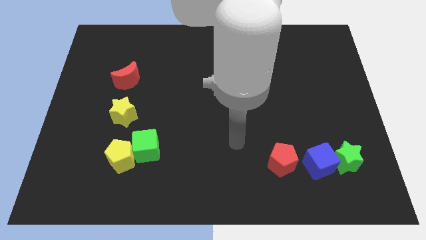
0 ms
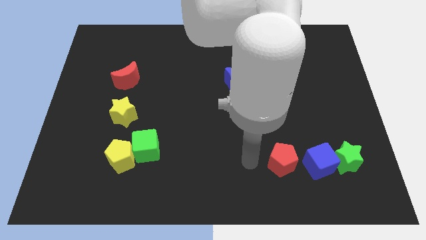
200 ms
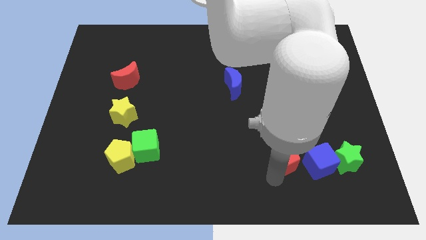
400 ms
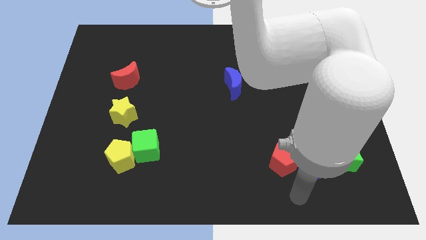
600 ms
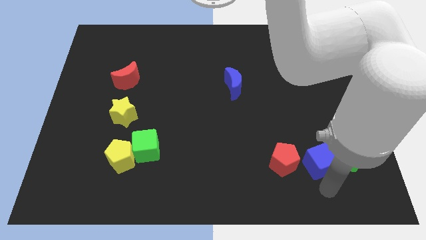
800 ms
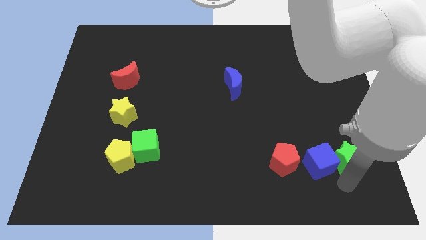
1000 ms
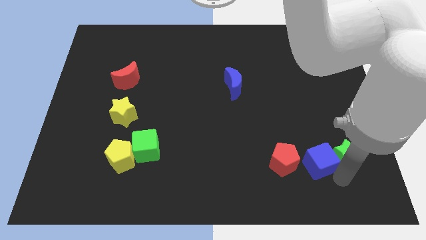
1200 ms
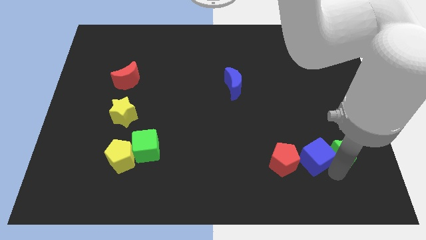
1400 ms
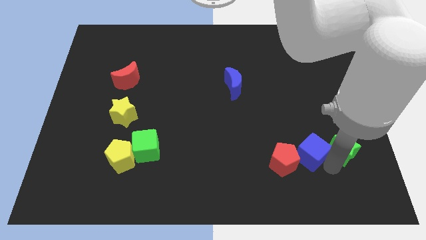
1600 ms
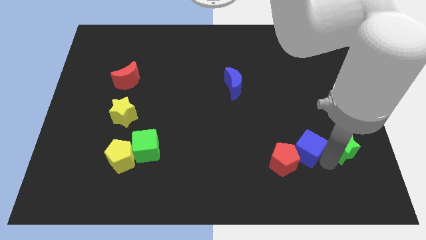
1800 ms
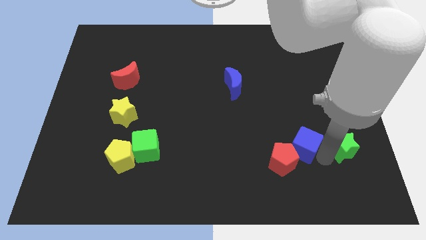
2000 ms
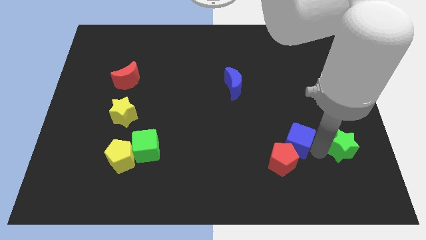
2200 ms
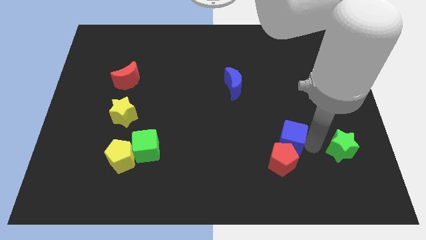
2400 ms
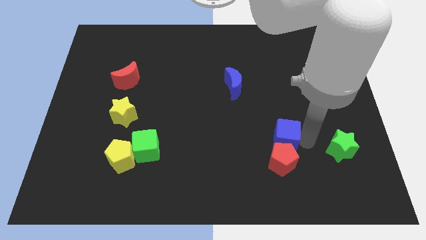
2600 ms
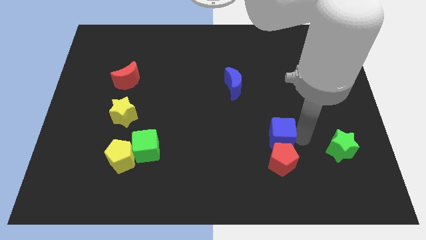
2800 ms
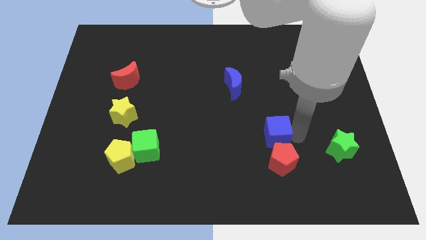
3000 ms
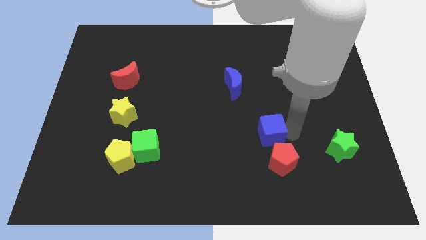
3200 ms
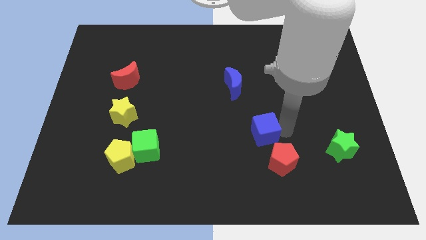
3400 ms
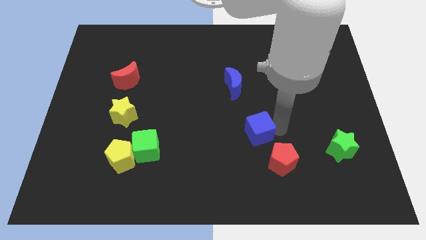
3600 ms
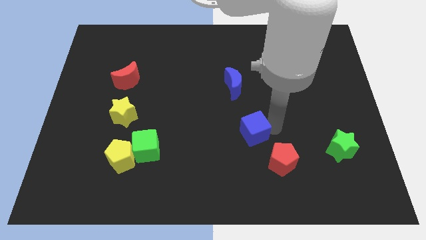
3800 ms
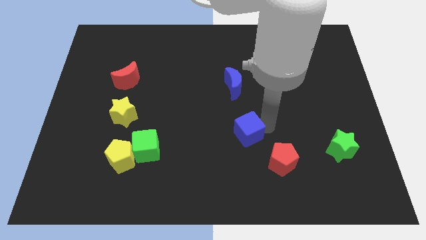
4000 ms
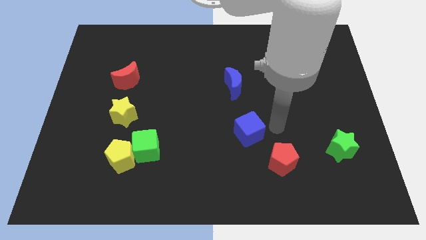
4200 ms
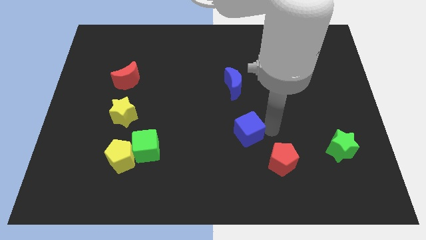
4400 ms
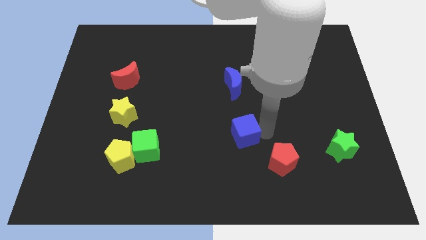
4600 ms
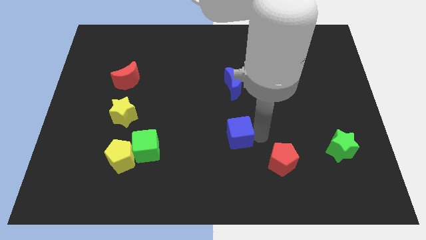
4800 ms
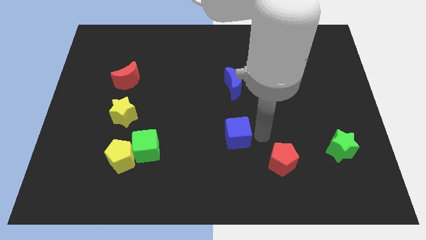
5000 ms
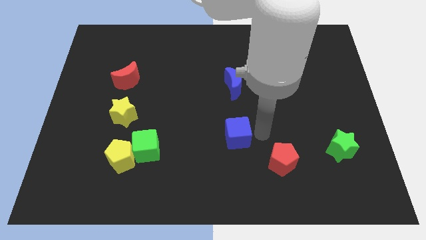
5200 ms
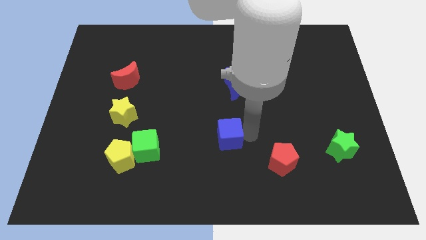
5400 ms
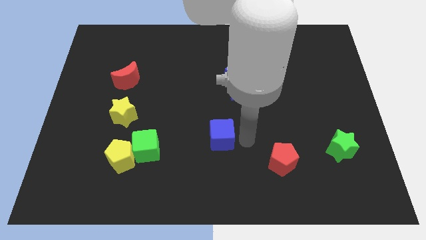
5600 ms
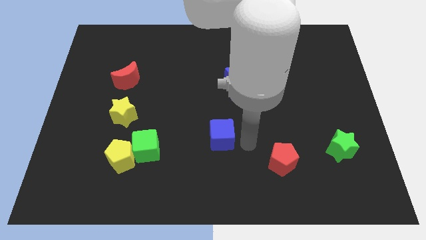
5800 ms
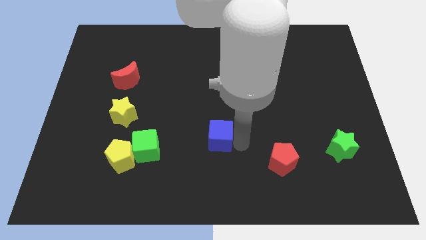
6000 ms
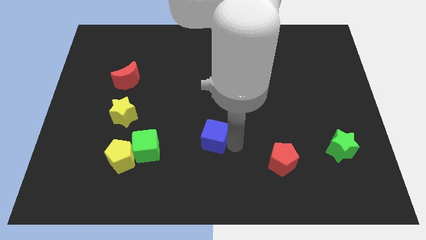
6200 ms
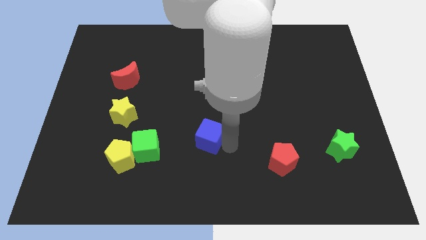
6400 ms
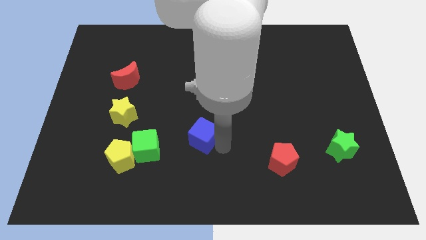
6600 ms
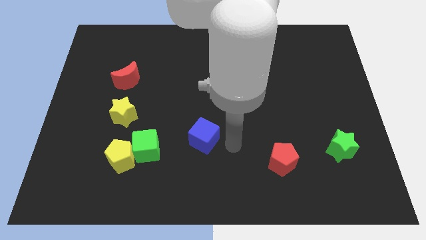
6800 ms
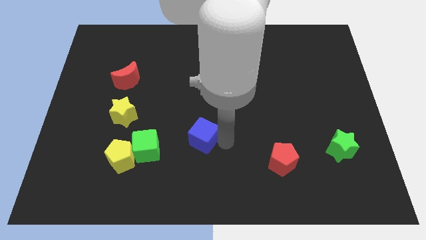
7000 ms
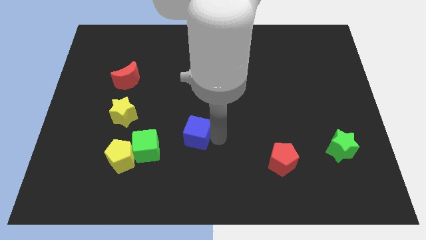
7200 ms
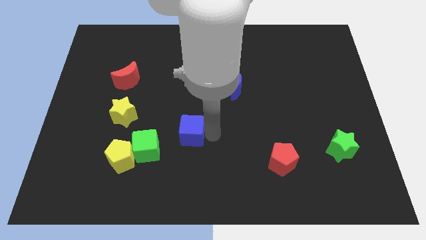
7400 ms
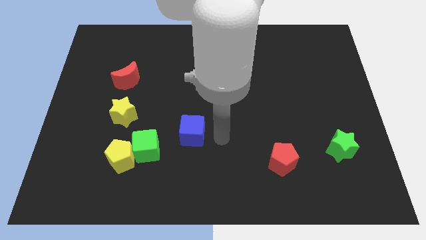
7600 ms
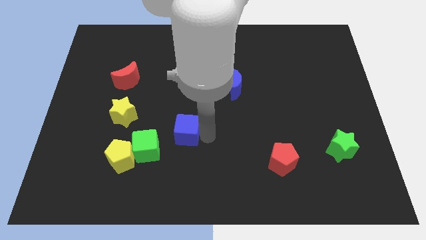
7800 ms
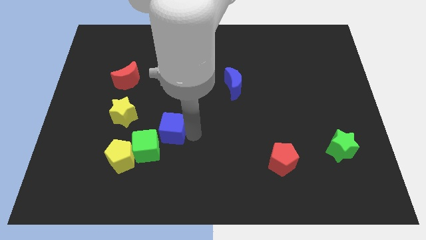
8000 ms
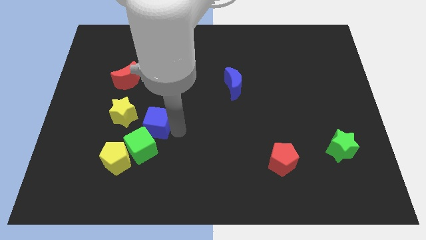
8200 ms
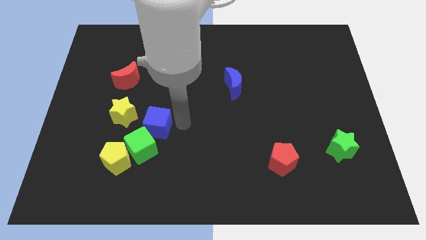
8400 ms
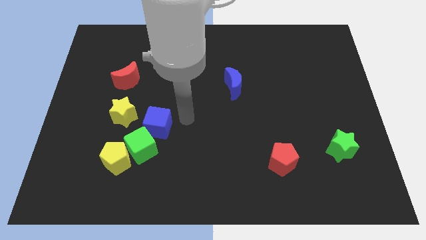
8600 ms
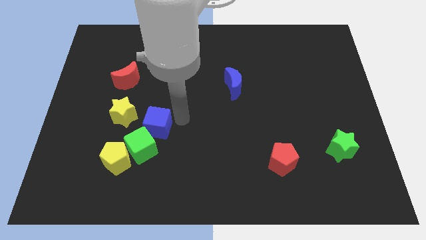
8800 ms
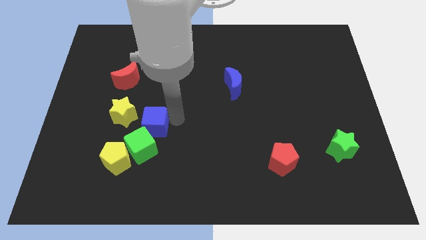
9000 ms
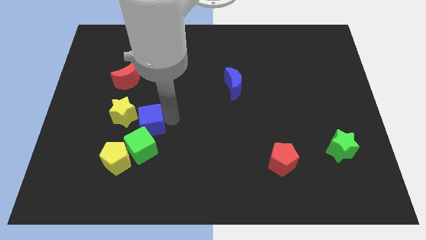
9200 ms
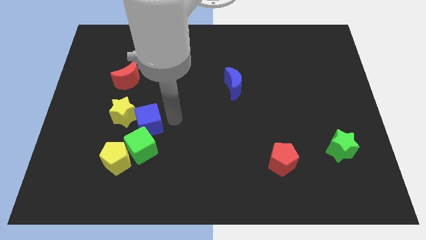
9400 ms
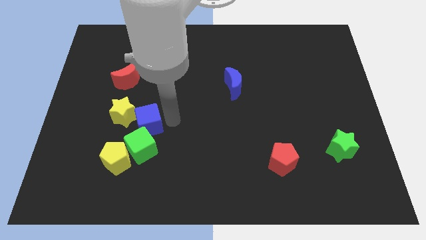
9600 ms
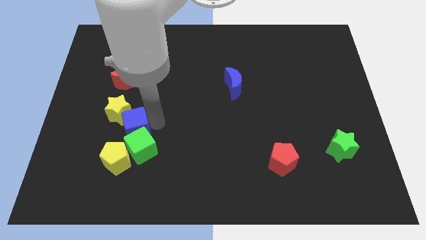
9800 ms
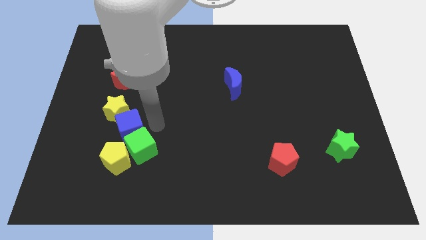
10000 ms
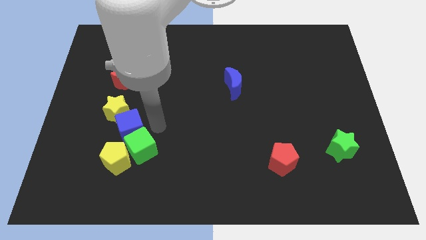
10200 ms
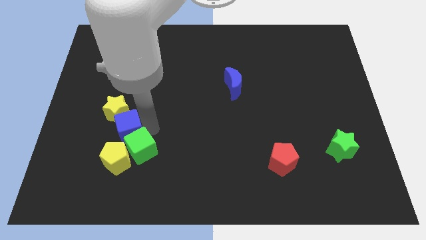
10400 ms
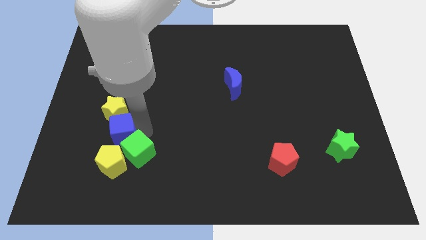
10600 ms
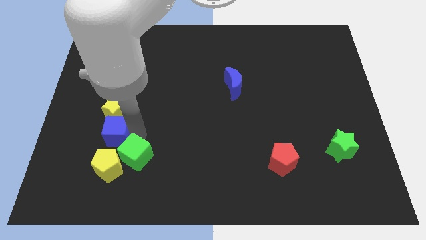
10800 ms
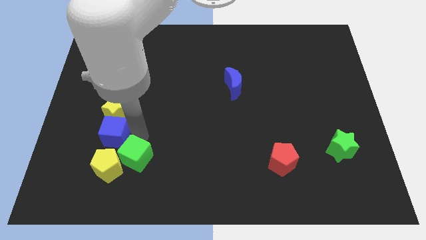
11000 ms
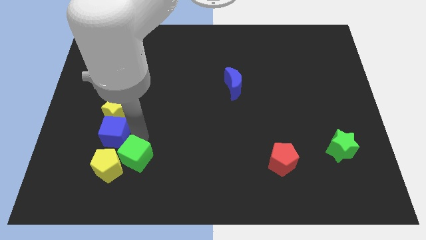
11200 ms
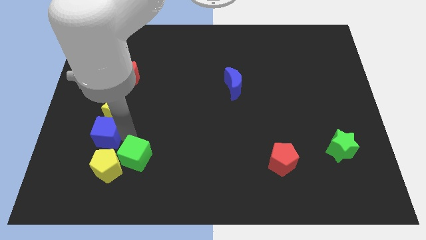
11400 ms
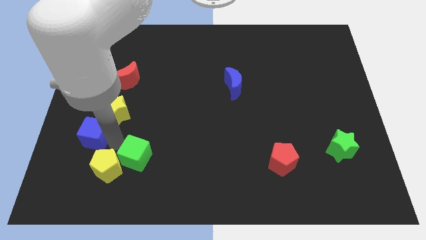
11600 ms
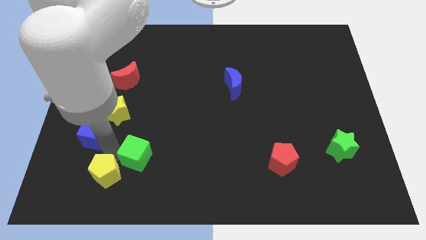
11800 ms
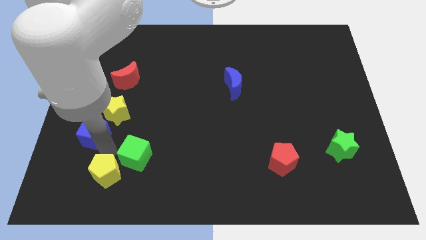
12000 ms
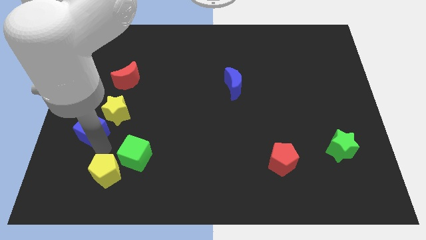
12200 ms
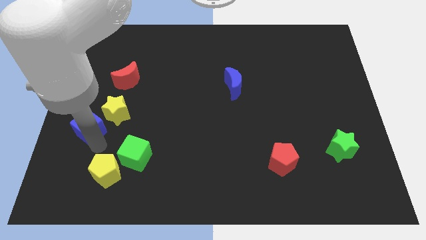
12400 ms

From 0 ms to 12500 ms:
put the blue cube to the center left
